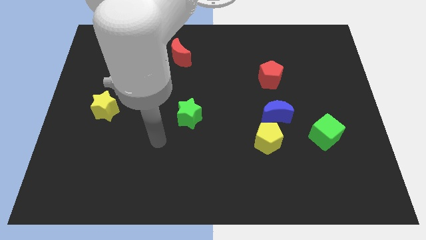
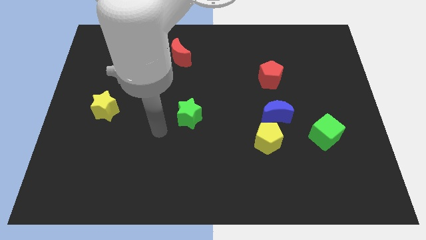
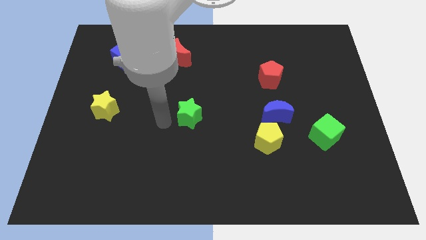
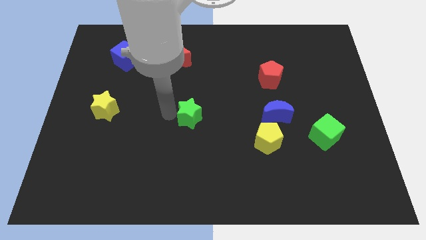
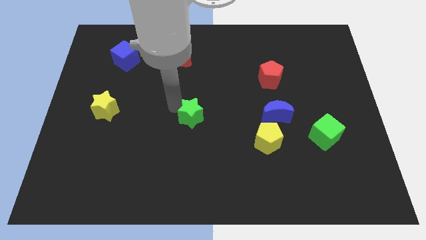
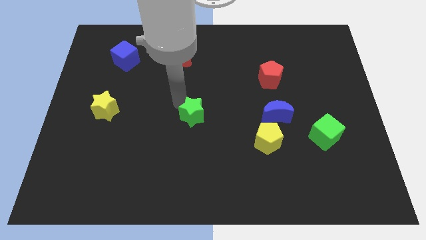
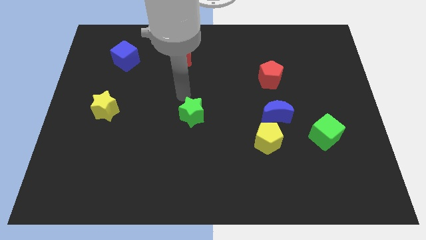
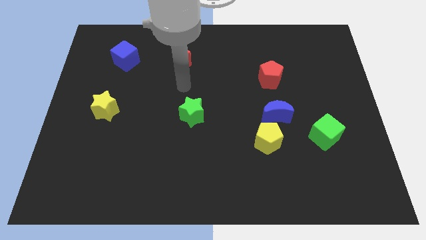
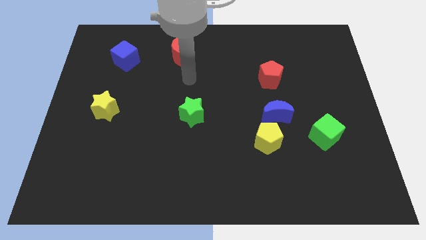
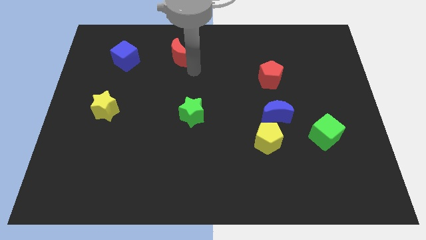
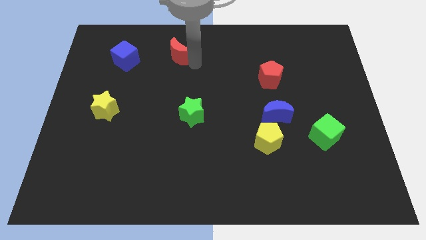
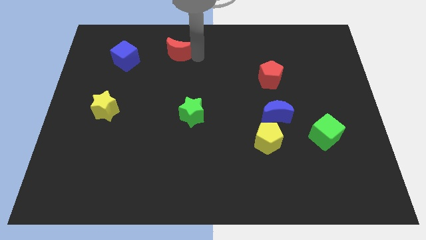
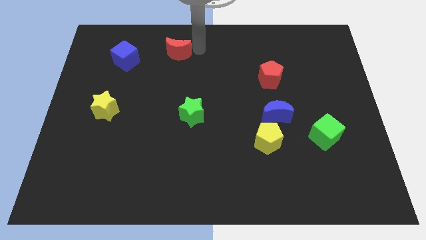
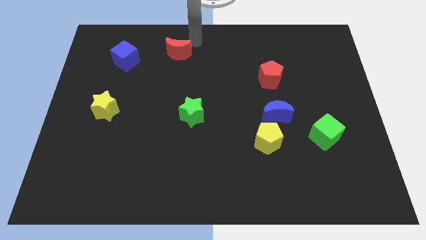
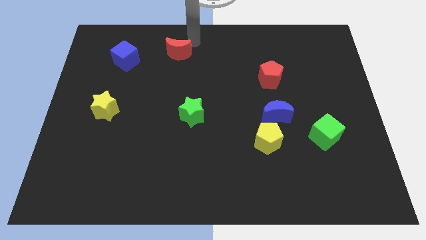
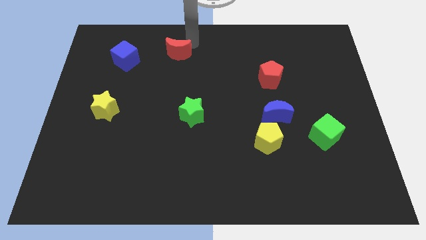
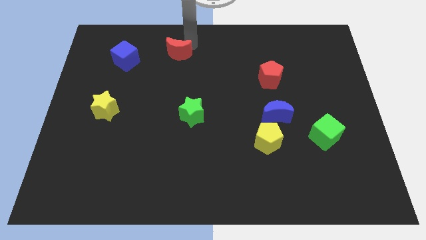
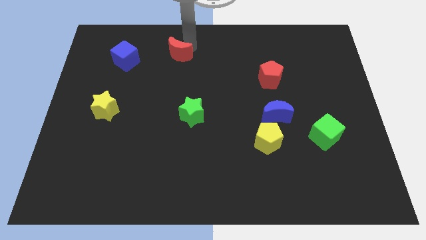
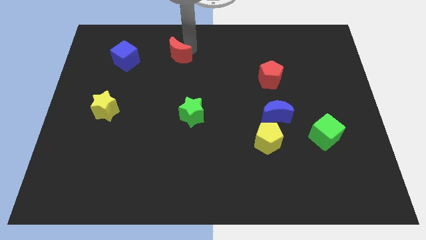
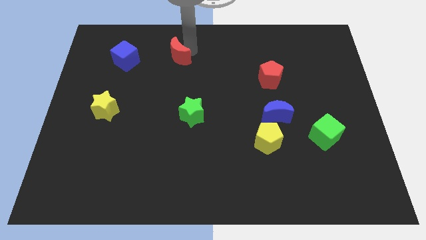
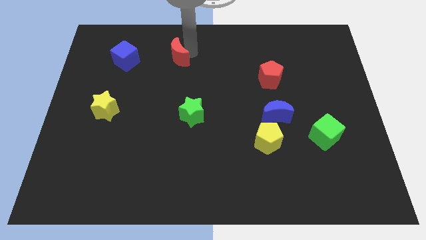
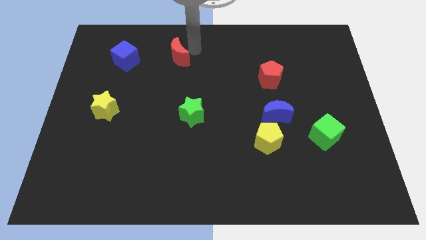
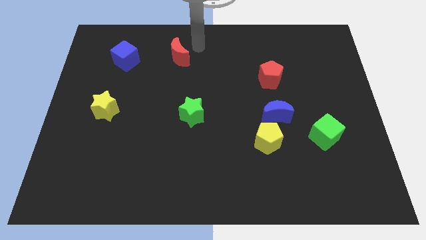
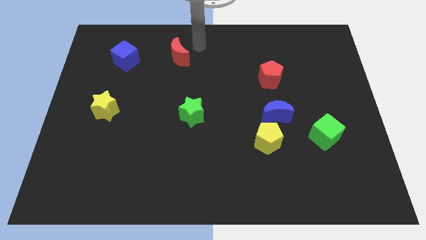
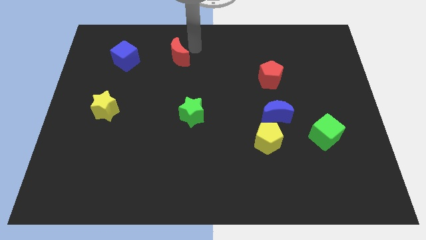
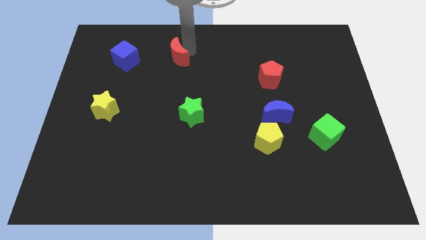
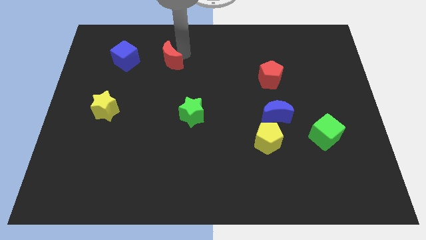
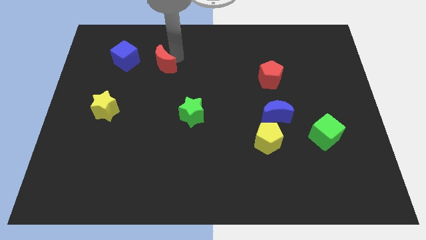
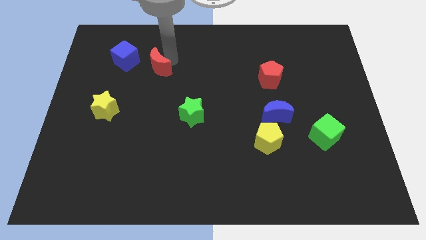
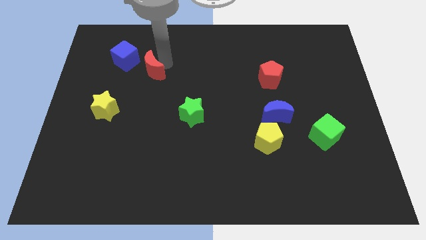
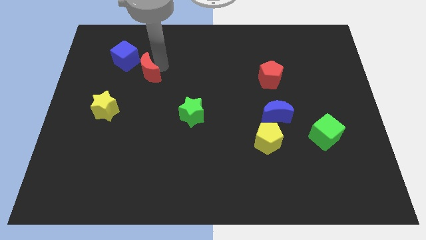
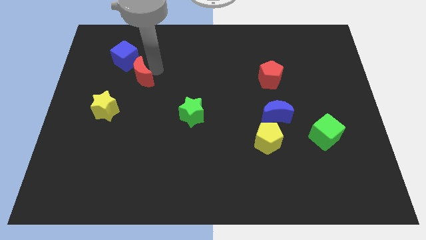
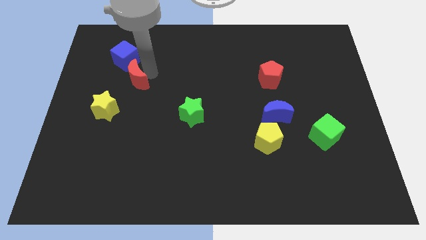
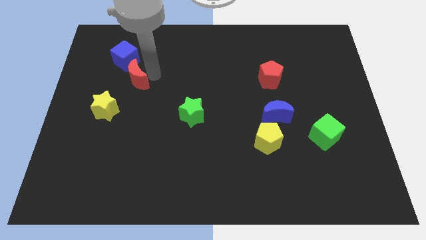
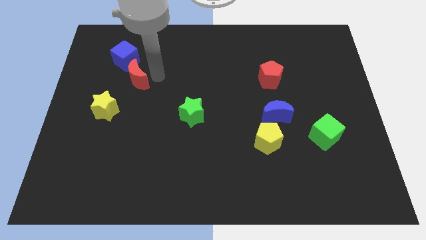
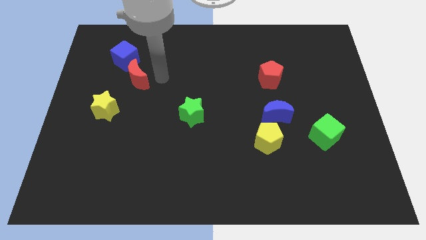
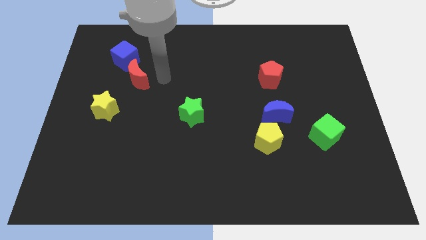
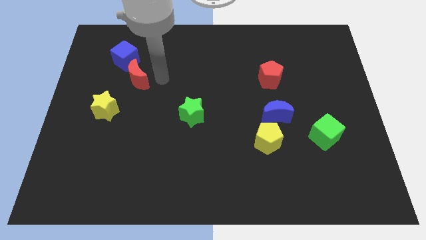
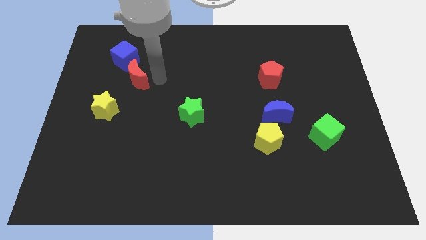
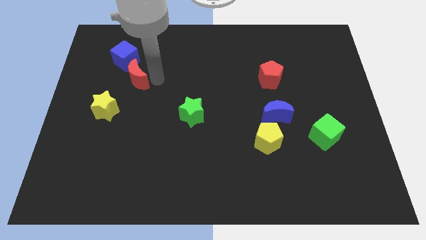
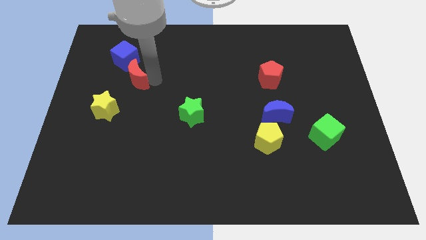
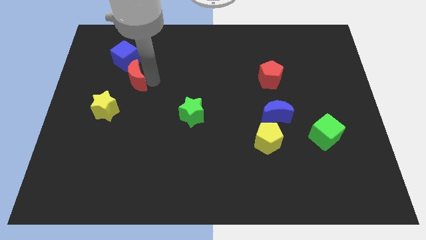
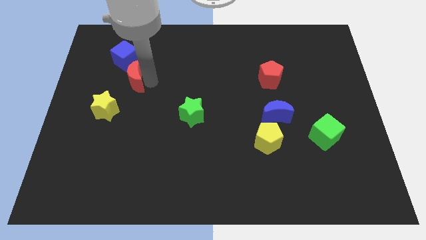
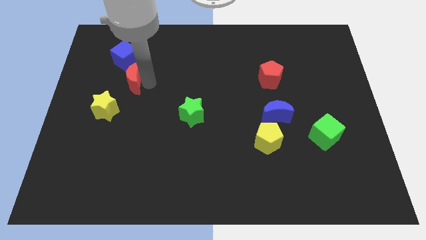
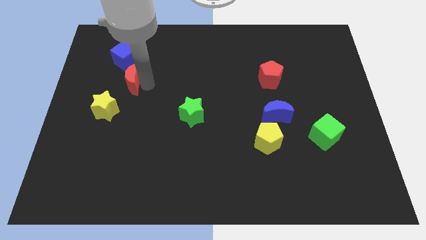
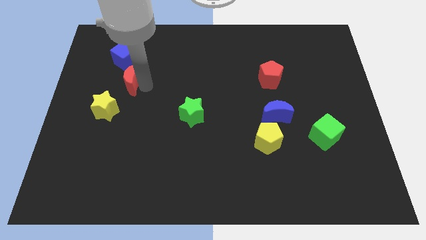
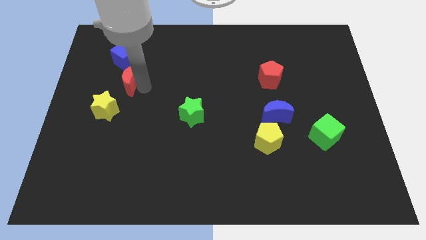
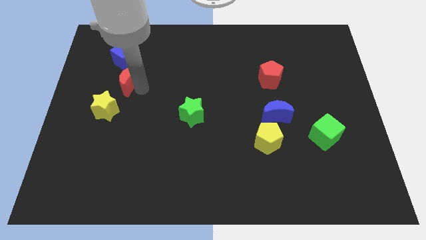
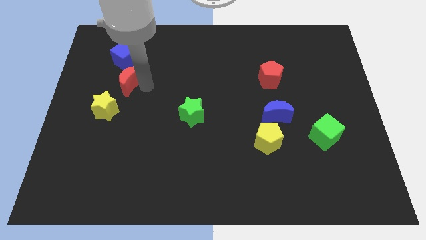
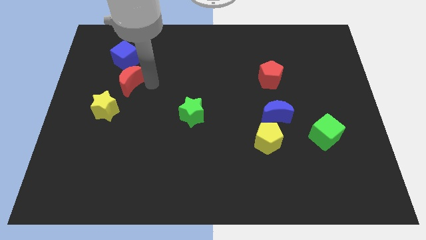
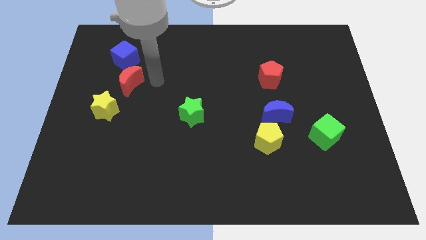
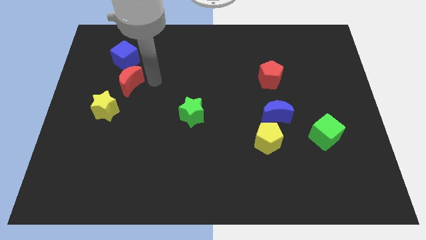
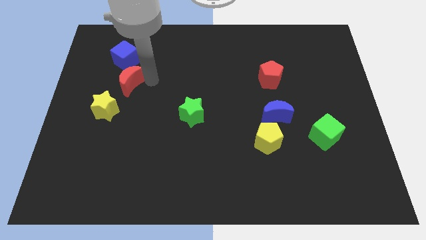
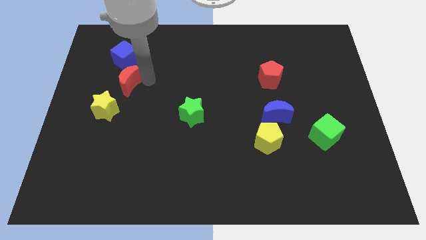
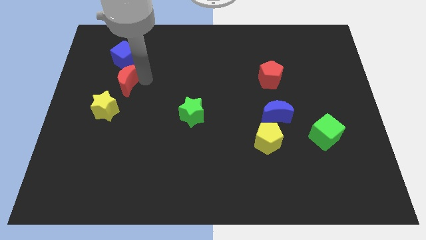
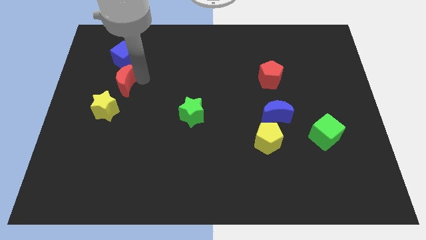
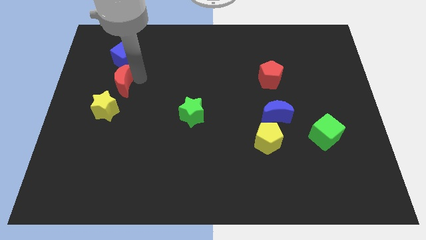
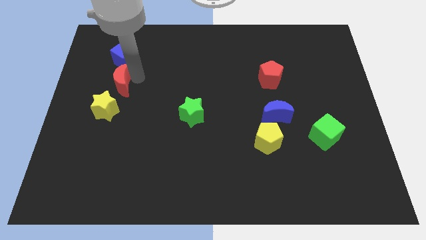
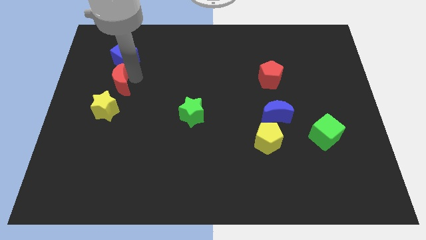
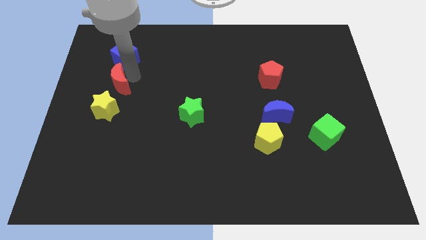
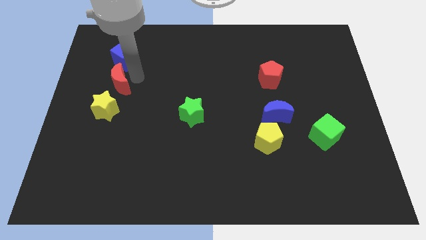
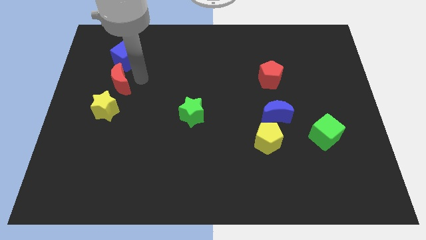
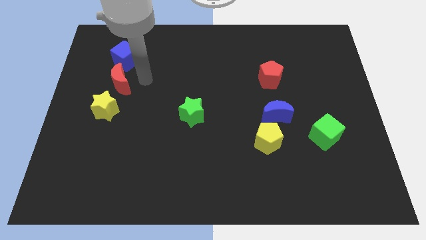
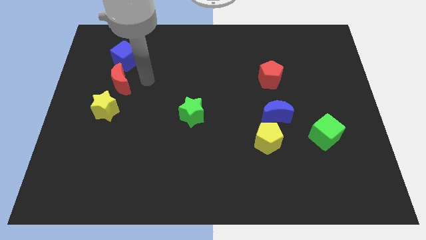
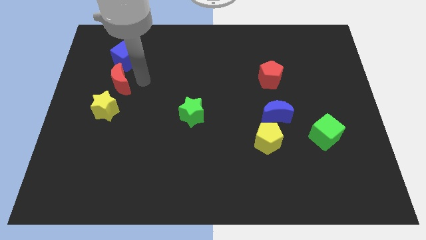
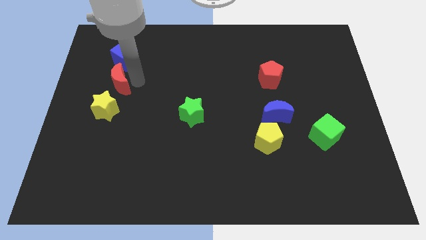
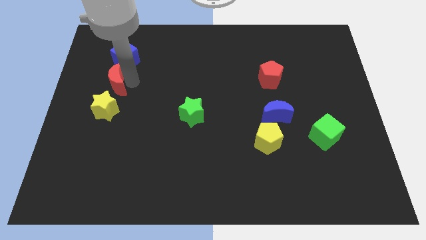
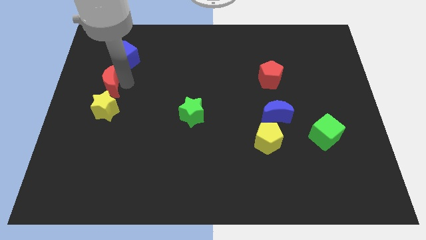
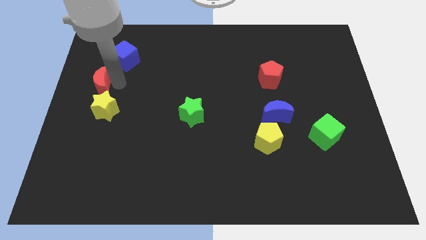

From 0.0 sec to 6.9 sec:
move the red moon to the left side of the board
